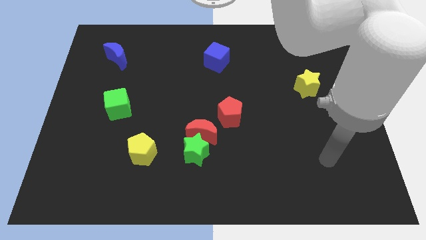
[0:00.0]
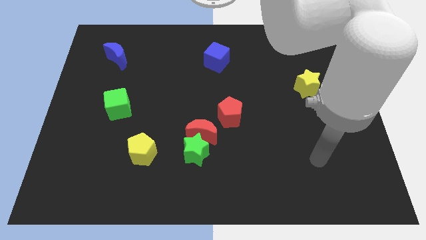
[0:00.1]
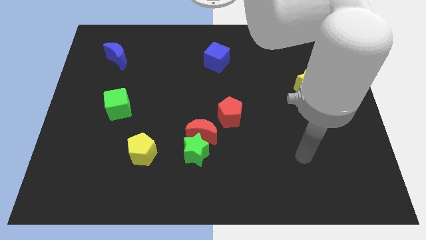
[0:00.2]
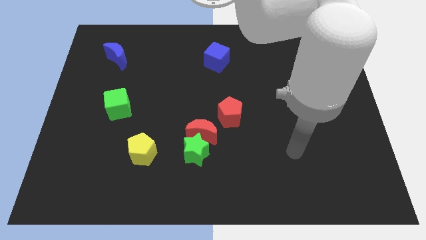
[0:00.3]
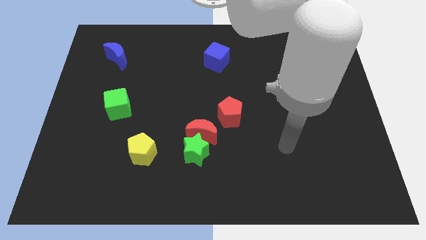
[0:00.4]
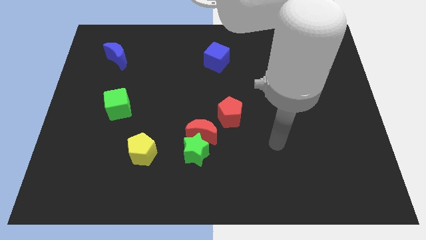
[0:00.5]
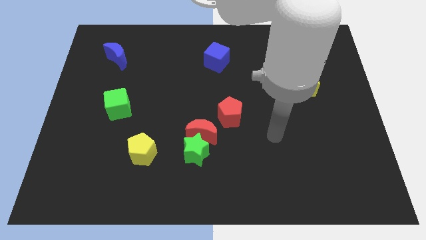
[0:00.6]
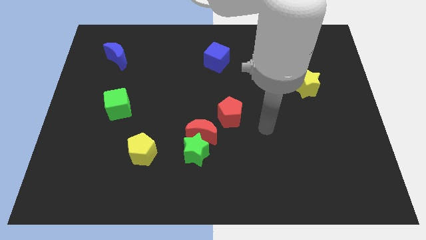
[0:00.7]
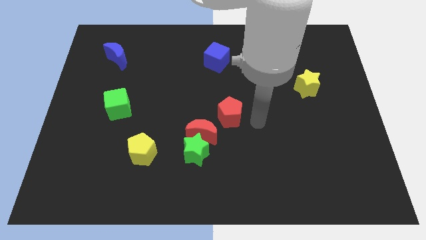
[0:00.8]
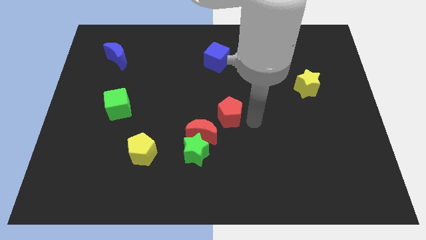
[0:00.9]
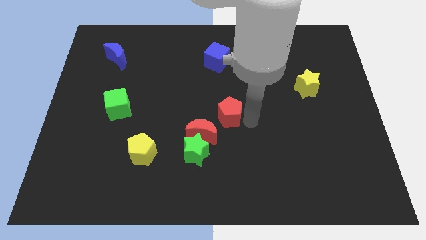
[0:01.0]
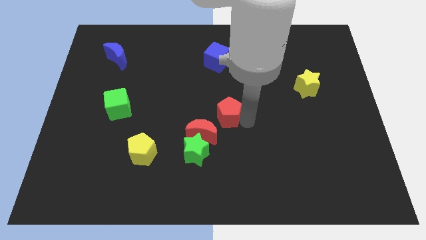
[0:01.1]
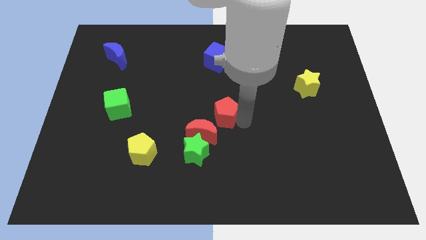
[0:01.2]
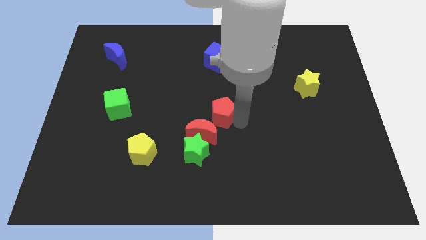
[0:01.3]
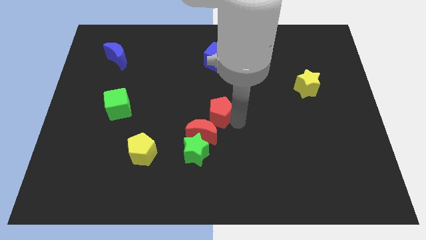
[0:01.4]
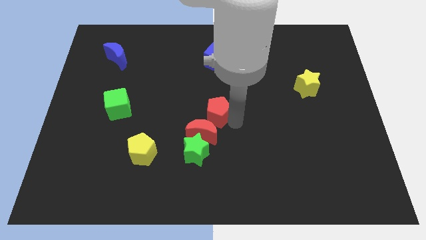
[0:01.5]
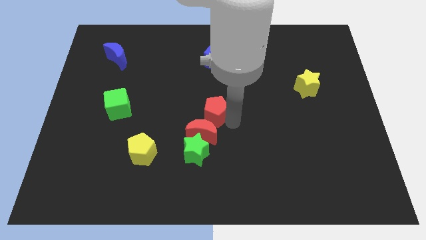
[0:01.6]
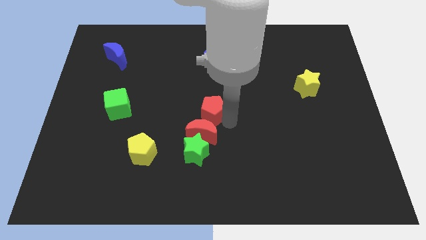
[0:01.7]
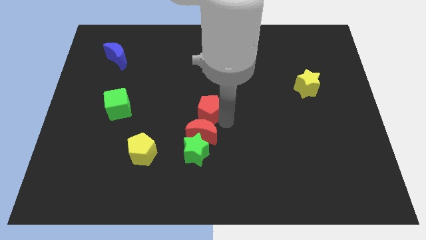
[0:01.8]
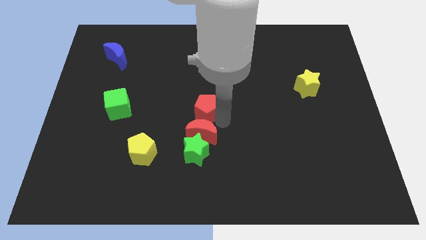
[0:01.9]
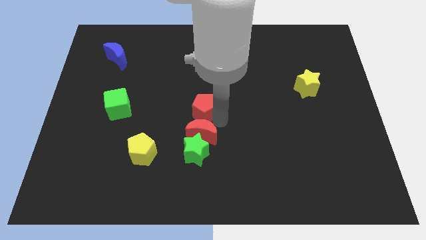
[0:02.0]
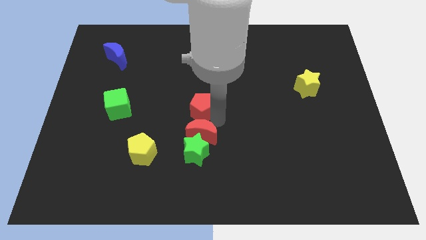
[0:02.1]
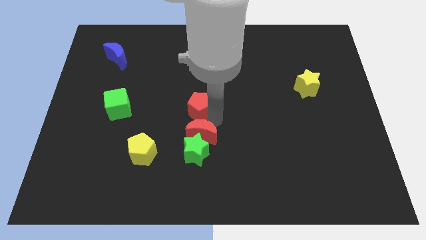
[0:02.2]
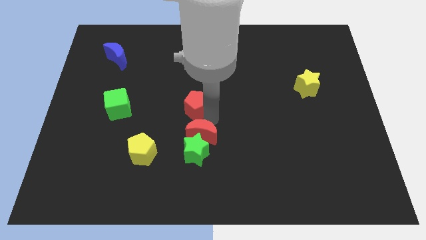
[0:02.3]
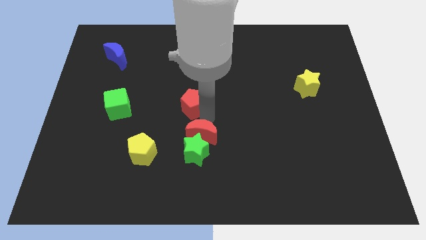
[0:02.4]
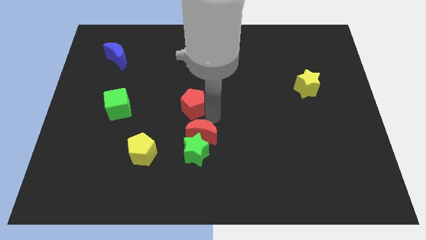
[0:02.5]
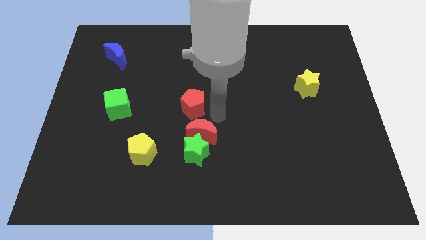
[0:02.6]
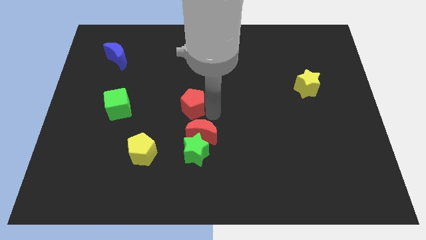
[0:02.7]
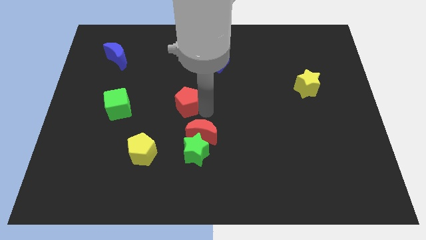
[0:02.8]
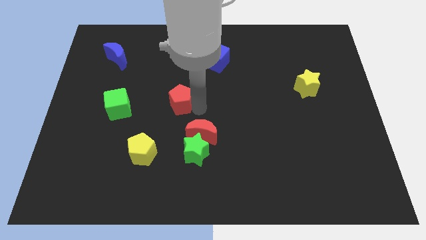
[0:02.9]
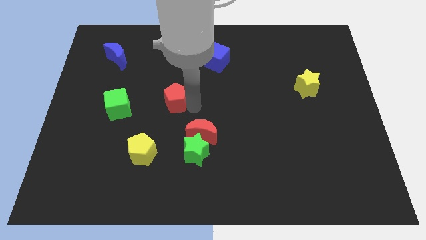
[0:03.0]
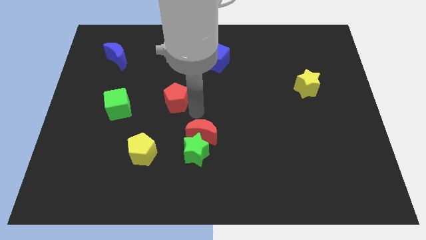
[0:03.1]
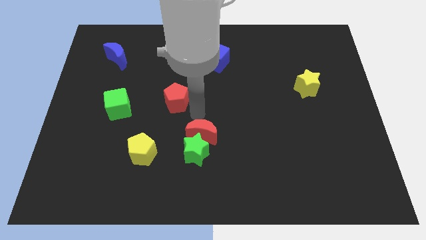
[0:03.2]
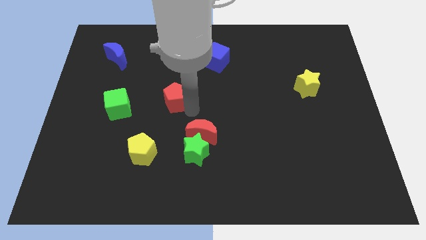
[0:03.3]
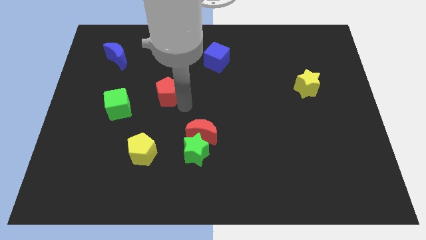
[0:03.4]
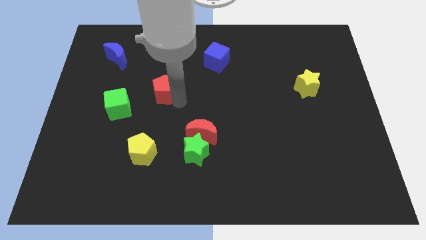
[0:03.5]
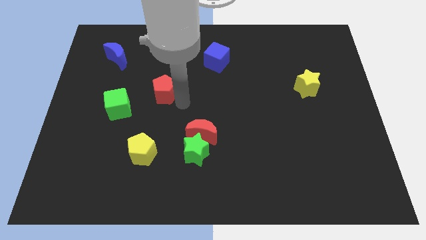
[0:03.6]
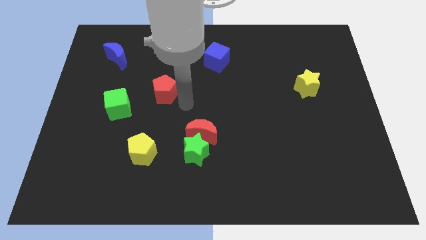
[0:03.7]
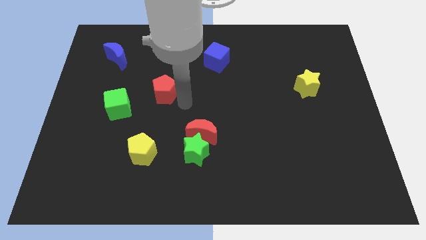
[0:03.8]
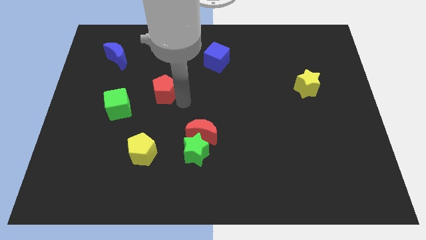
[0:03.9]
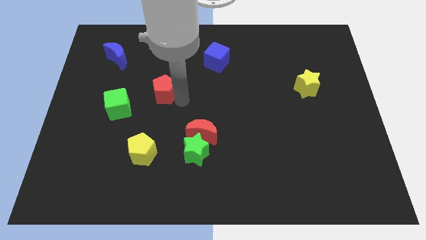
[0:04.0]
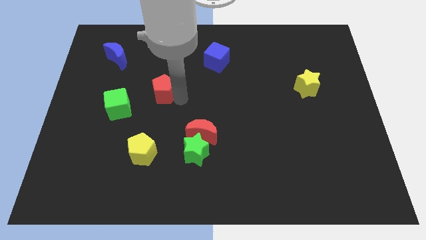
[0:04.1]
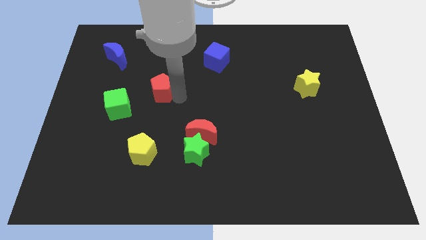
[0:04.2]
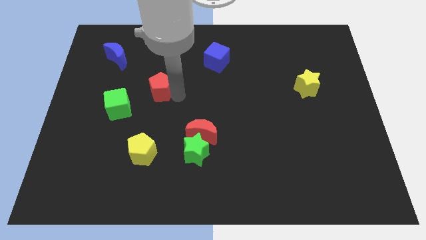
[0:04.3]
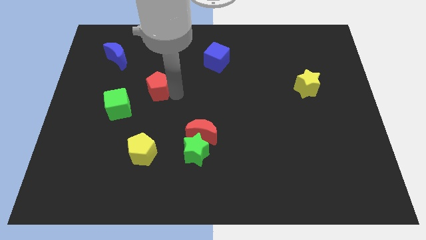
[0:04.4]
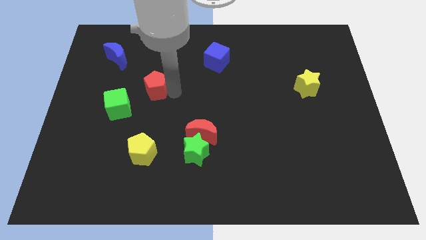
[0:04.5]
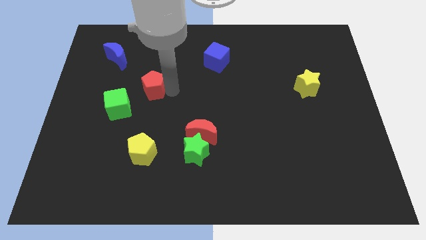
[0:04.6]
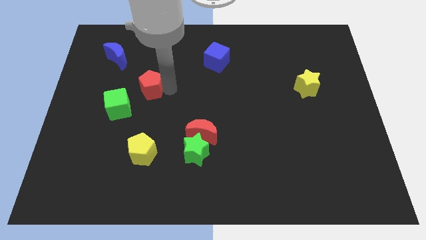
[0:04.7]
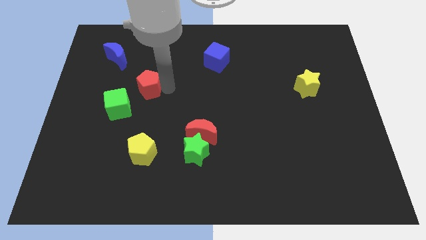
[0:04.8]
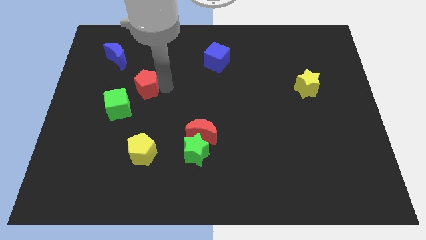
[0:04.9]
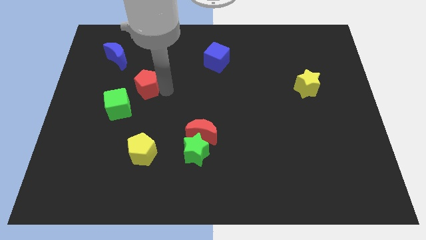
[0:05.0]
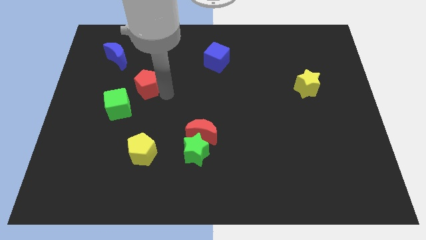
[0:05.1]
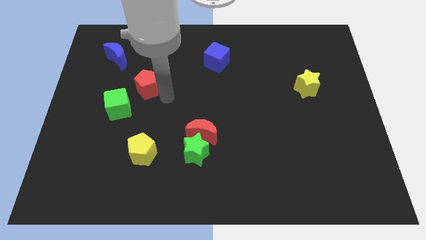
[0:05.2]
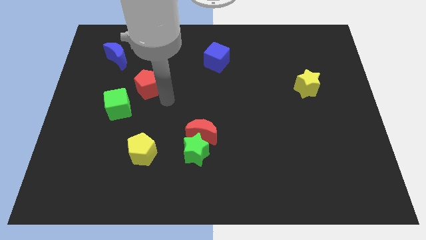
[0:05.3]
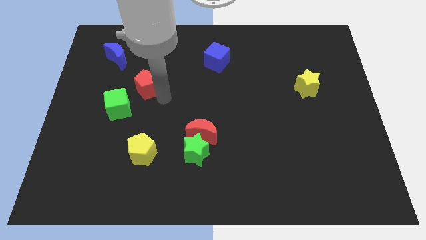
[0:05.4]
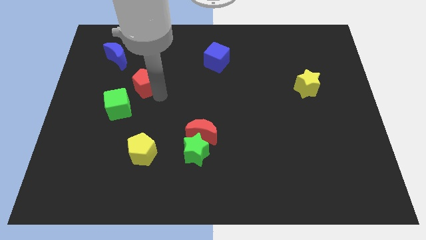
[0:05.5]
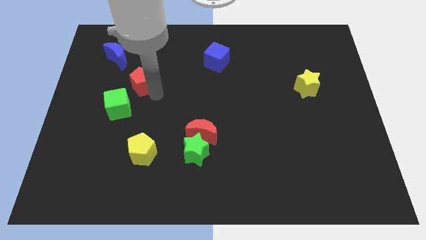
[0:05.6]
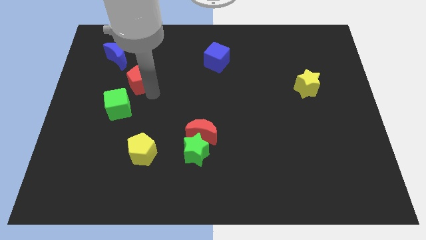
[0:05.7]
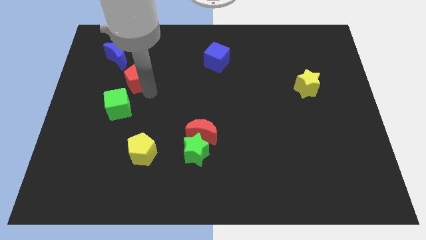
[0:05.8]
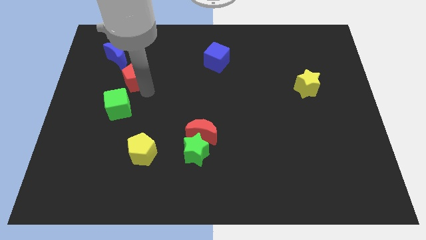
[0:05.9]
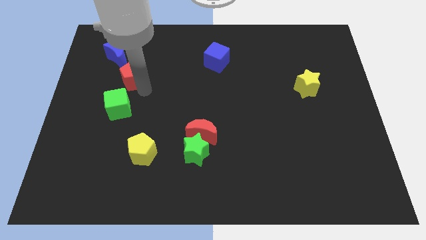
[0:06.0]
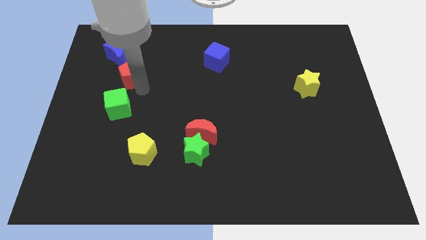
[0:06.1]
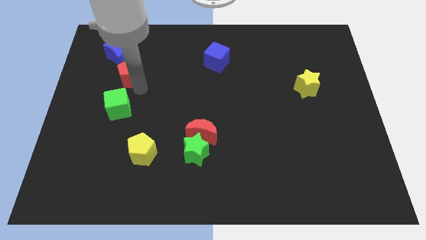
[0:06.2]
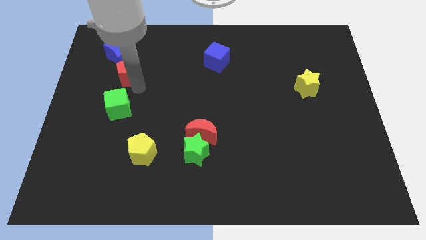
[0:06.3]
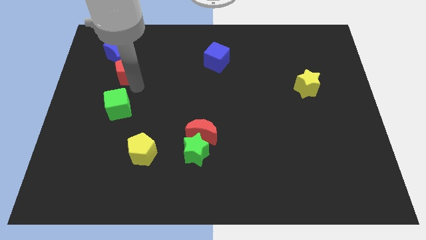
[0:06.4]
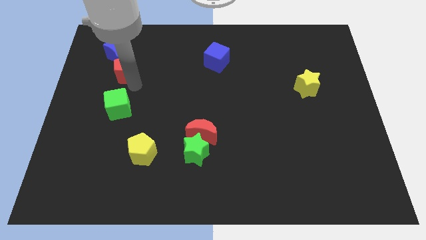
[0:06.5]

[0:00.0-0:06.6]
put the red pentagon close to the blue moon
